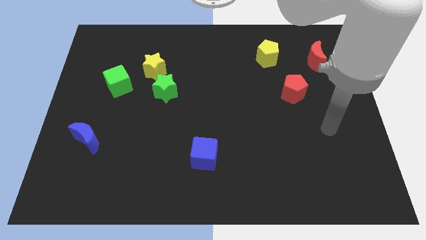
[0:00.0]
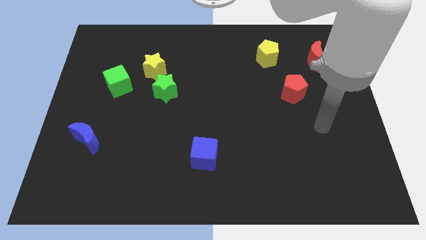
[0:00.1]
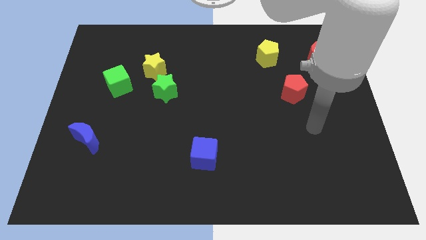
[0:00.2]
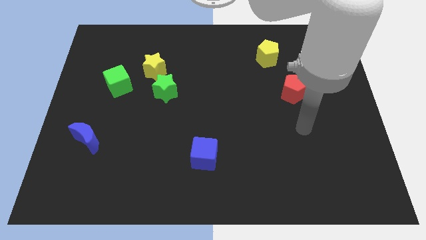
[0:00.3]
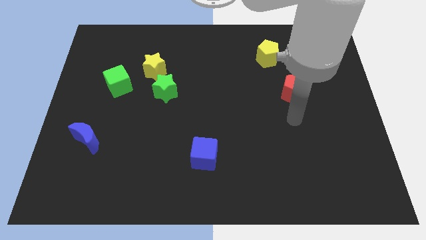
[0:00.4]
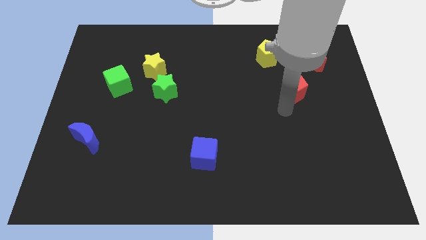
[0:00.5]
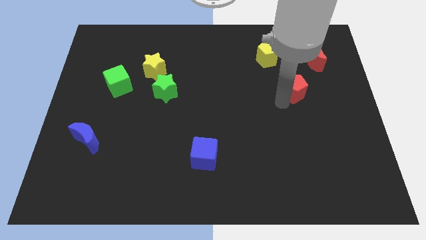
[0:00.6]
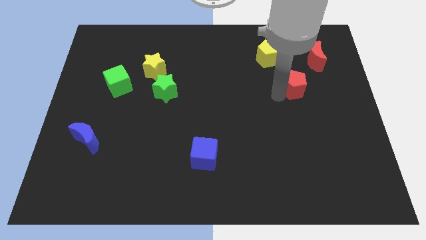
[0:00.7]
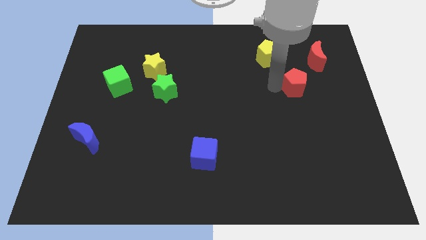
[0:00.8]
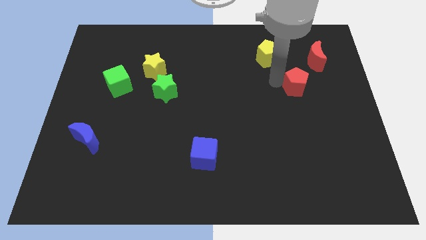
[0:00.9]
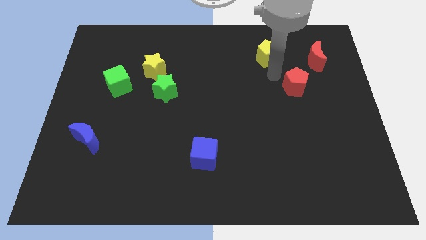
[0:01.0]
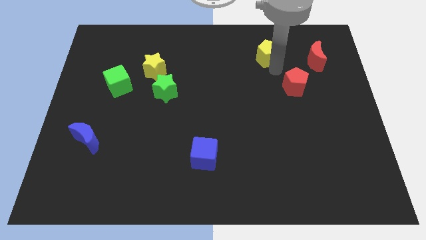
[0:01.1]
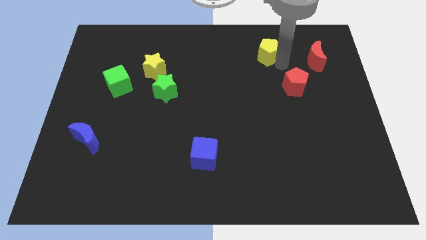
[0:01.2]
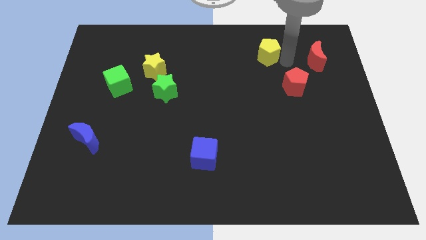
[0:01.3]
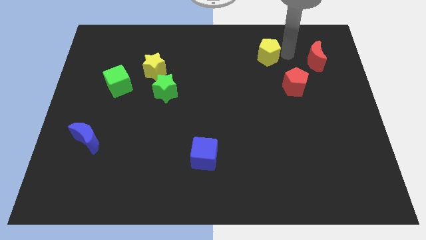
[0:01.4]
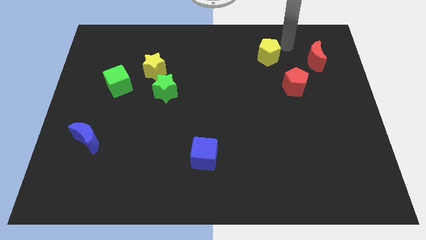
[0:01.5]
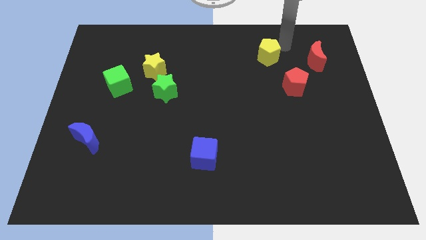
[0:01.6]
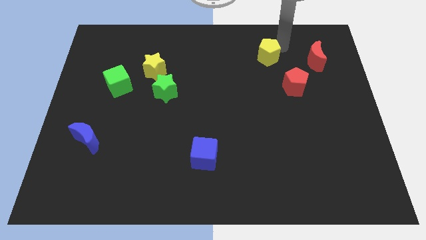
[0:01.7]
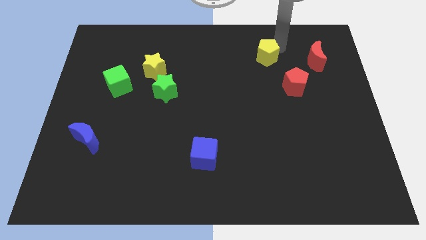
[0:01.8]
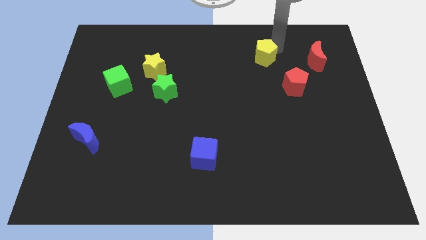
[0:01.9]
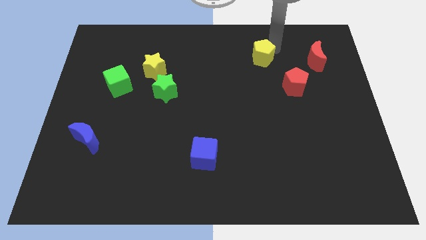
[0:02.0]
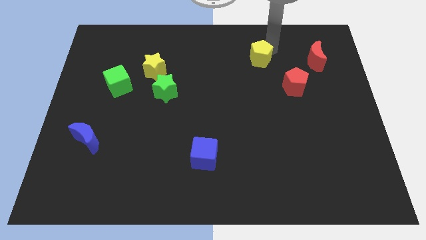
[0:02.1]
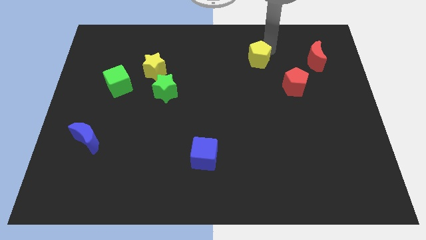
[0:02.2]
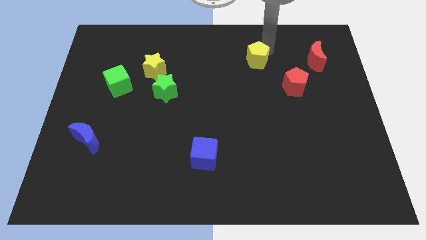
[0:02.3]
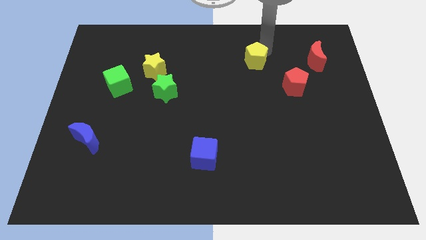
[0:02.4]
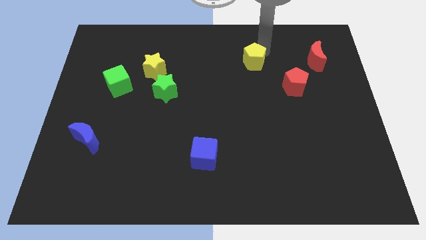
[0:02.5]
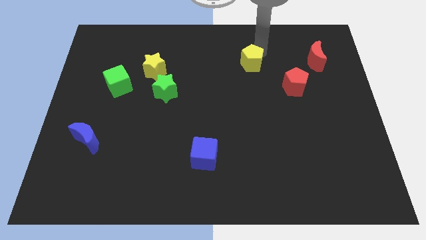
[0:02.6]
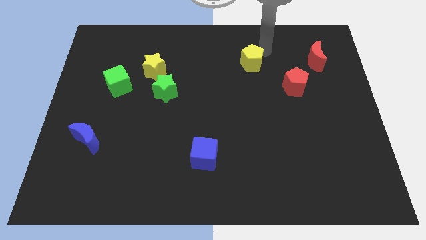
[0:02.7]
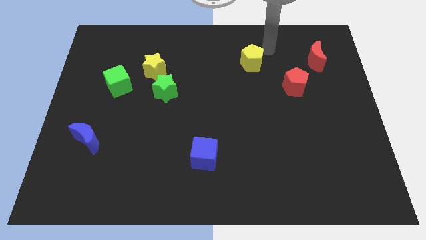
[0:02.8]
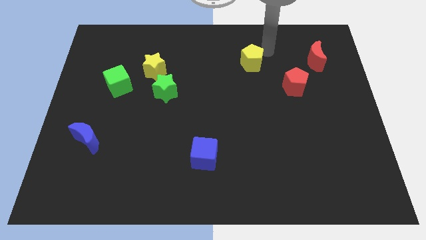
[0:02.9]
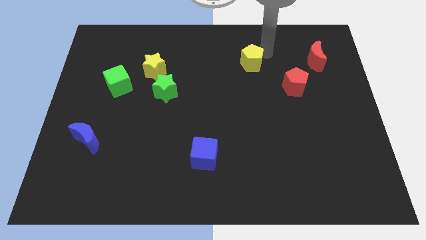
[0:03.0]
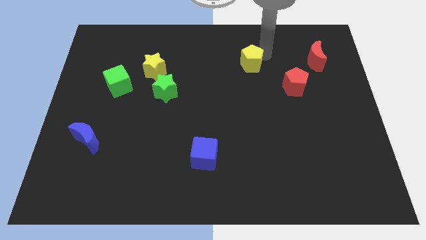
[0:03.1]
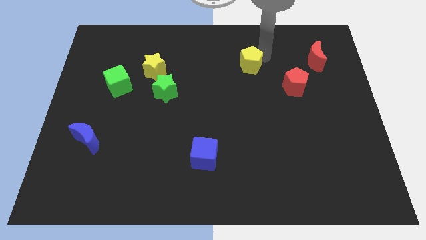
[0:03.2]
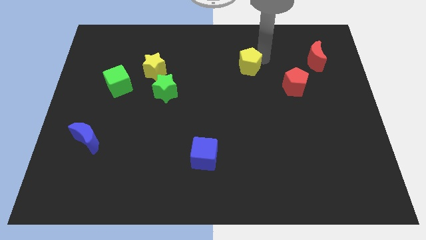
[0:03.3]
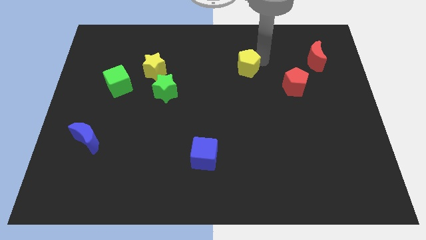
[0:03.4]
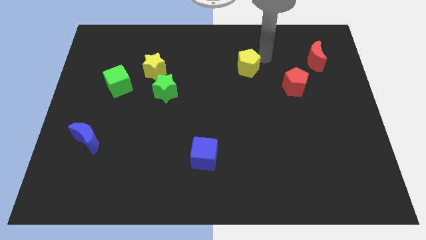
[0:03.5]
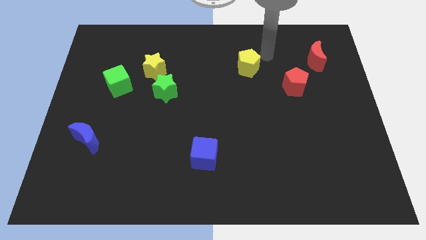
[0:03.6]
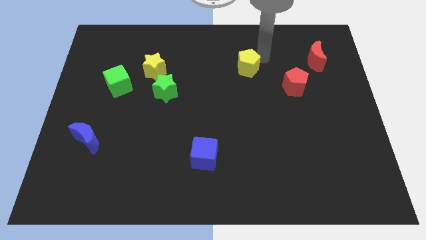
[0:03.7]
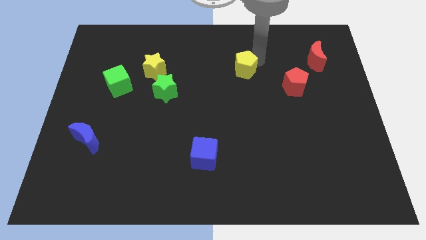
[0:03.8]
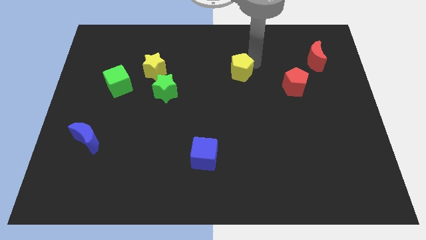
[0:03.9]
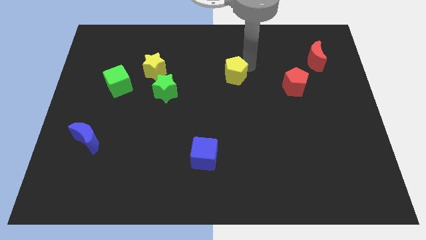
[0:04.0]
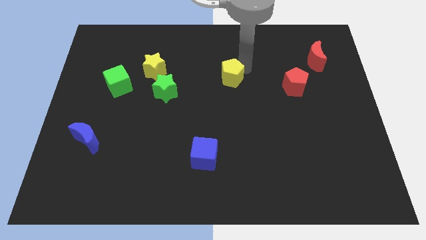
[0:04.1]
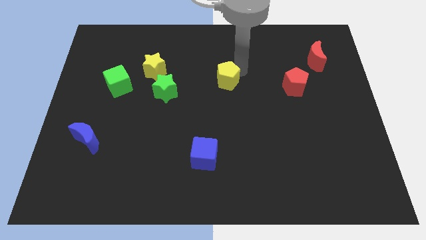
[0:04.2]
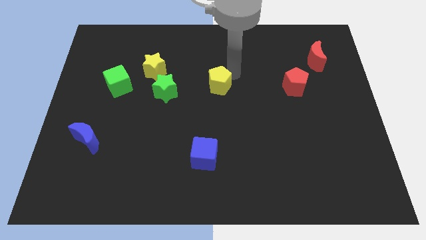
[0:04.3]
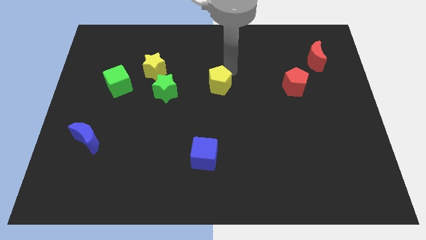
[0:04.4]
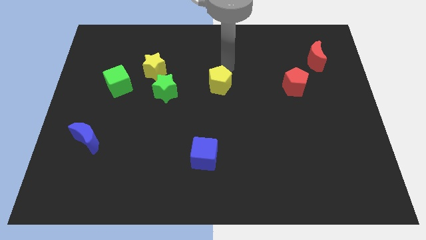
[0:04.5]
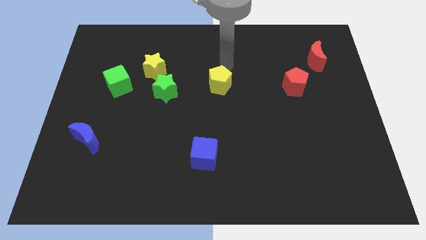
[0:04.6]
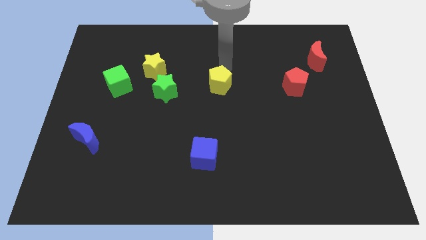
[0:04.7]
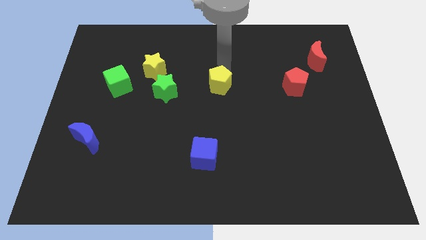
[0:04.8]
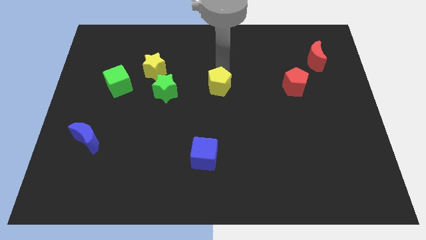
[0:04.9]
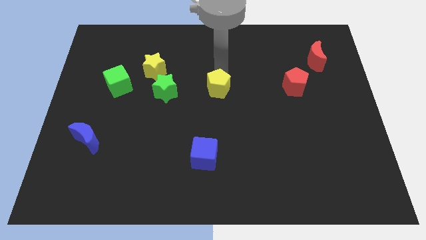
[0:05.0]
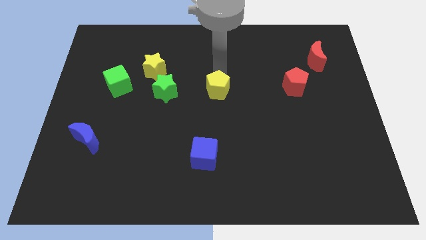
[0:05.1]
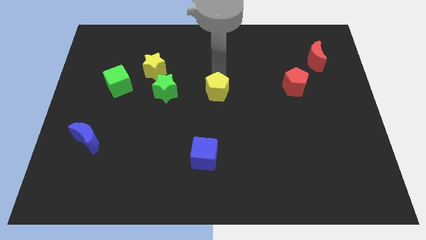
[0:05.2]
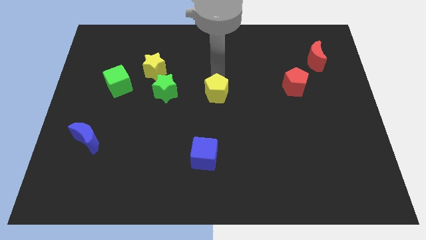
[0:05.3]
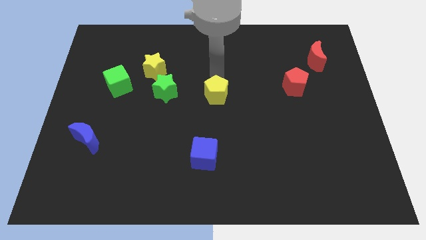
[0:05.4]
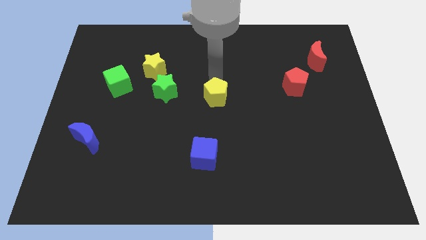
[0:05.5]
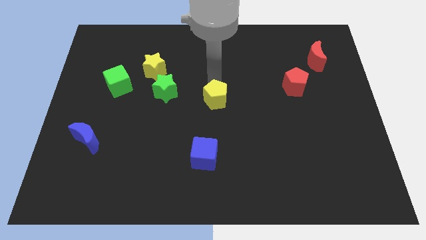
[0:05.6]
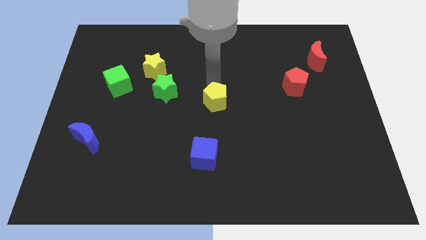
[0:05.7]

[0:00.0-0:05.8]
push the yellow pentagon to the top of the blue cube

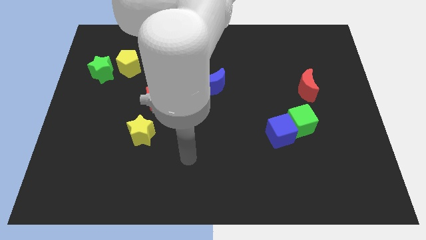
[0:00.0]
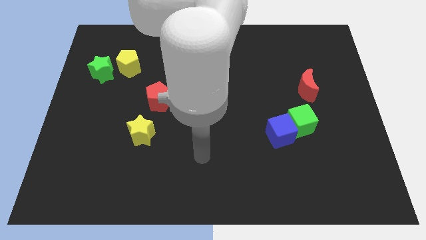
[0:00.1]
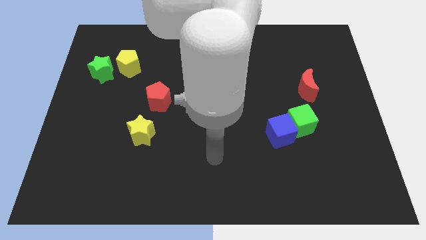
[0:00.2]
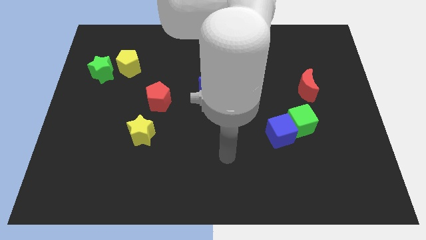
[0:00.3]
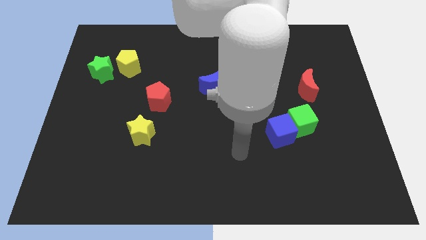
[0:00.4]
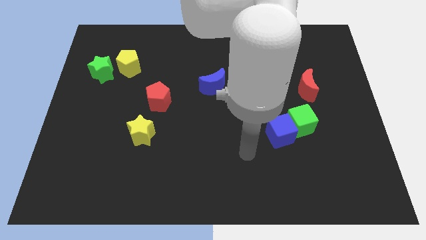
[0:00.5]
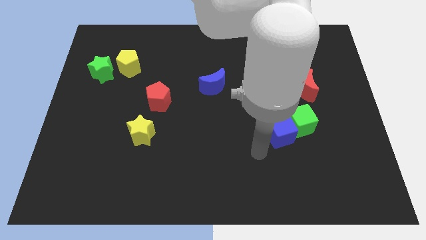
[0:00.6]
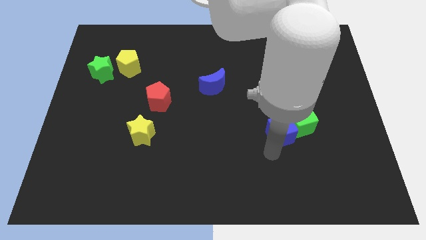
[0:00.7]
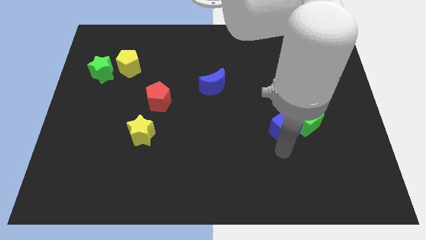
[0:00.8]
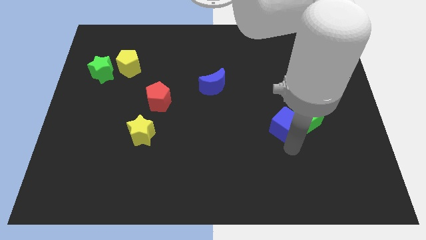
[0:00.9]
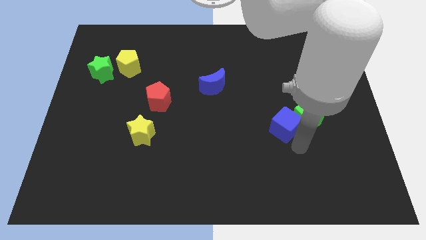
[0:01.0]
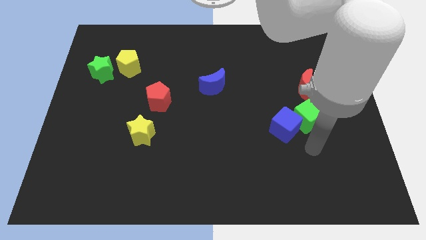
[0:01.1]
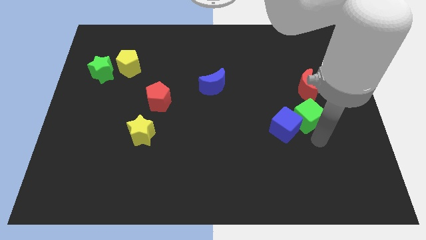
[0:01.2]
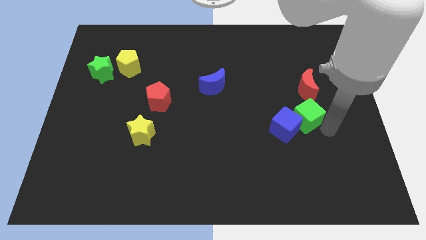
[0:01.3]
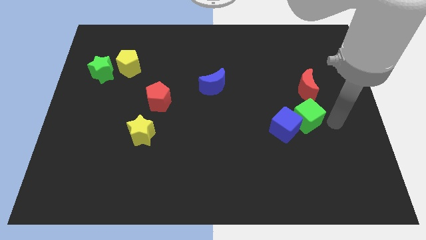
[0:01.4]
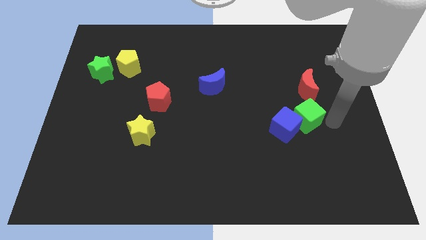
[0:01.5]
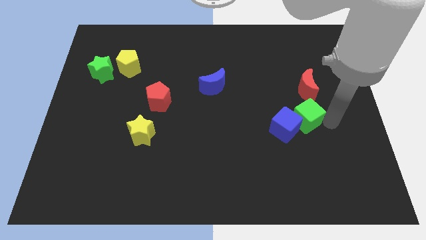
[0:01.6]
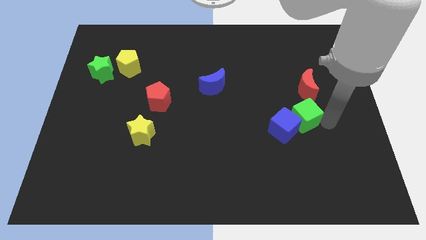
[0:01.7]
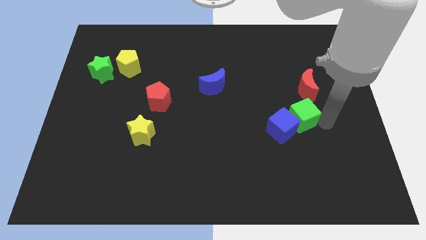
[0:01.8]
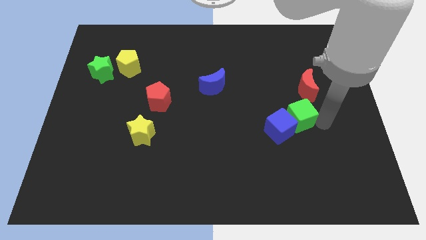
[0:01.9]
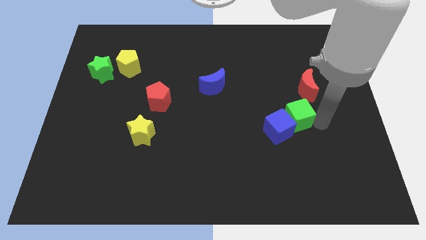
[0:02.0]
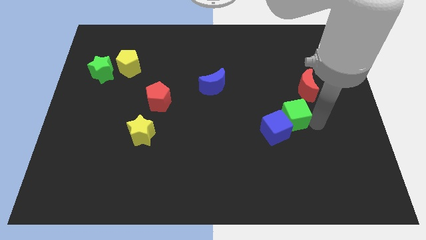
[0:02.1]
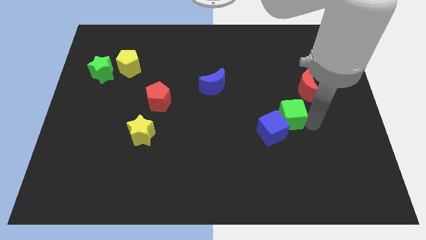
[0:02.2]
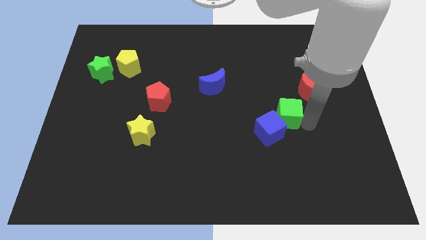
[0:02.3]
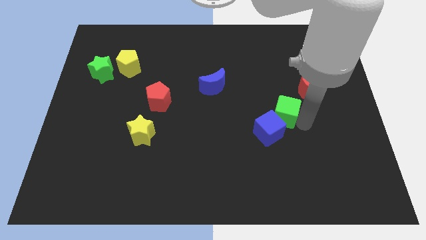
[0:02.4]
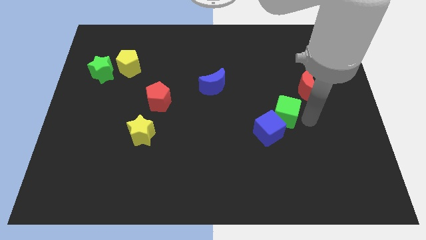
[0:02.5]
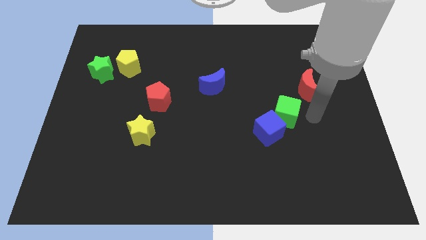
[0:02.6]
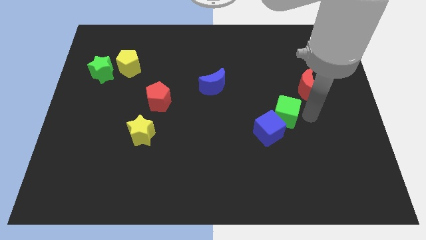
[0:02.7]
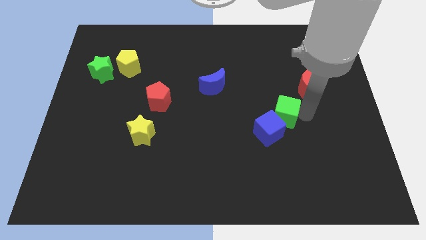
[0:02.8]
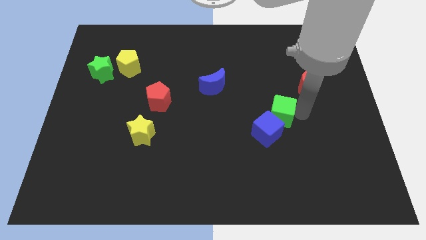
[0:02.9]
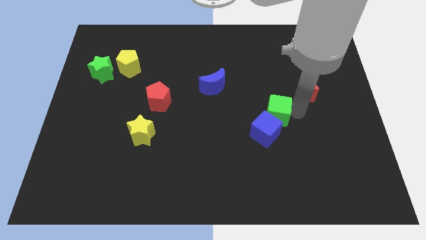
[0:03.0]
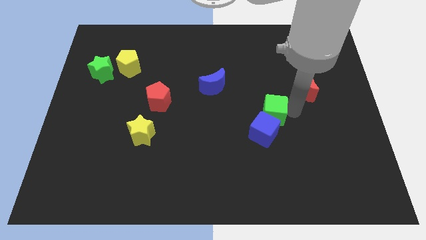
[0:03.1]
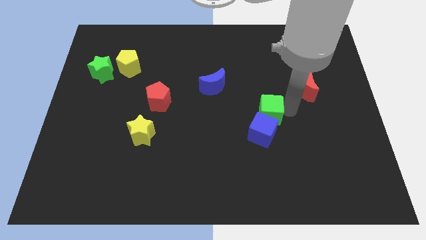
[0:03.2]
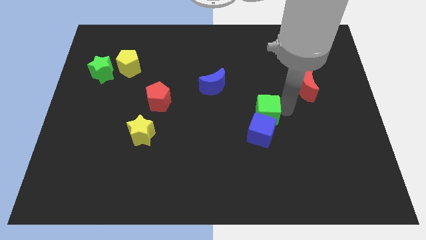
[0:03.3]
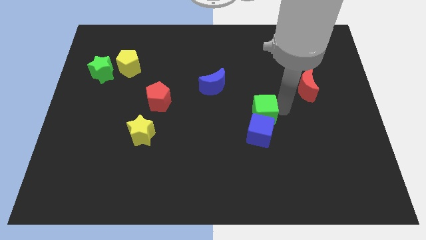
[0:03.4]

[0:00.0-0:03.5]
slide the green cube to the top left of the blue cube
